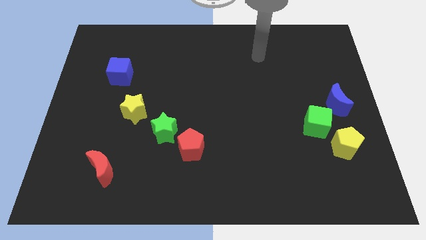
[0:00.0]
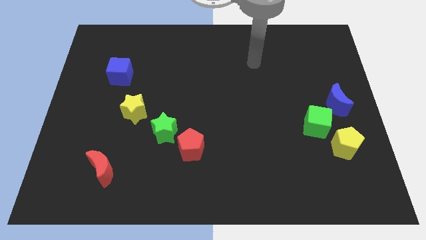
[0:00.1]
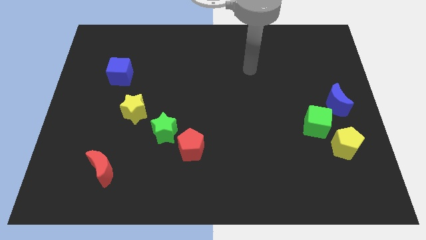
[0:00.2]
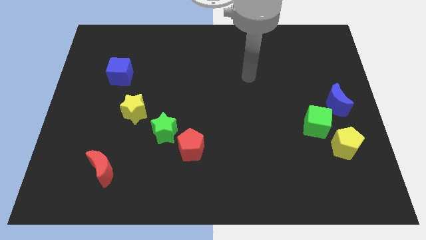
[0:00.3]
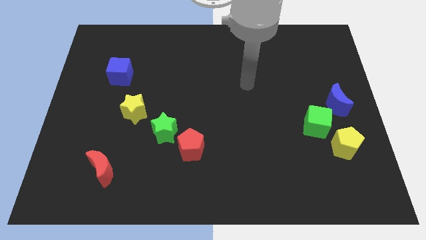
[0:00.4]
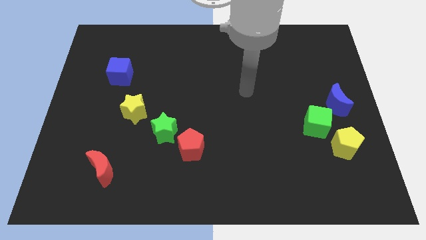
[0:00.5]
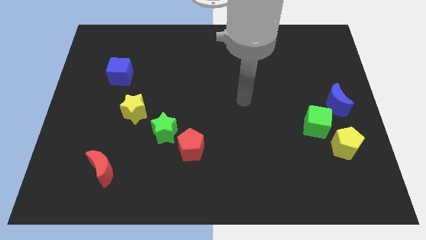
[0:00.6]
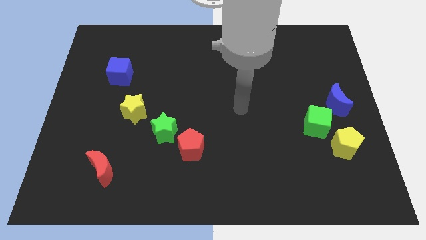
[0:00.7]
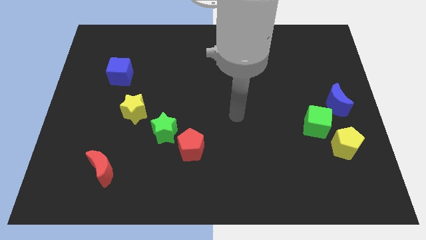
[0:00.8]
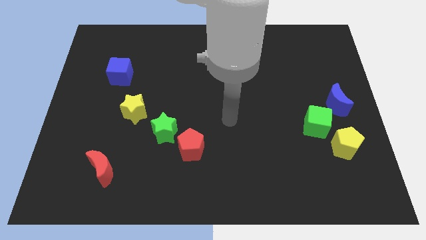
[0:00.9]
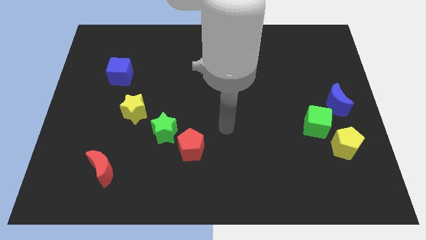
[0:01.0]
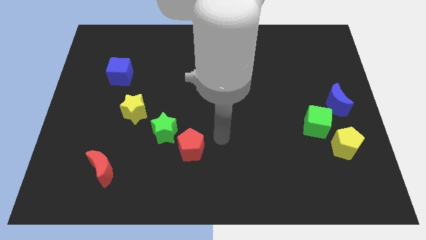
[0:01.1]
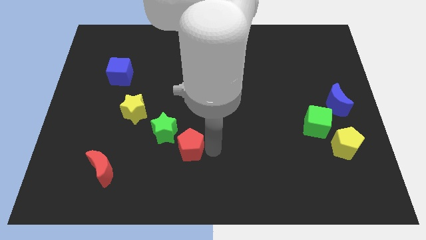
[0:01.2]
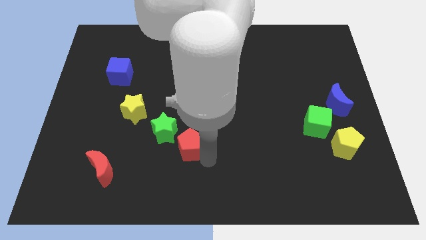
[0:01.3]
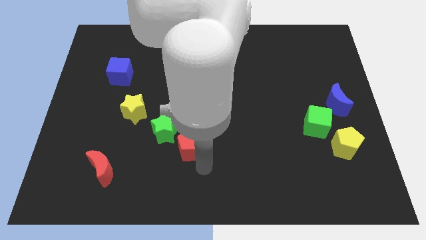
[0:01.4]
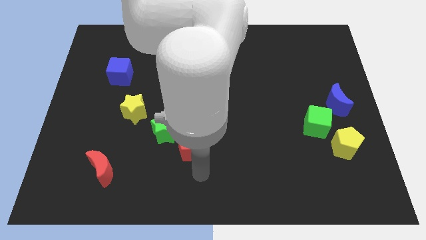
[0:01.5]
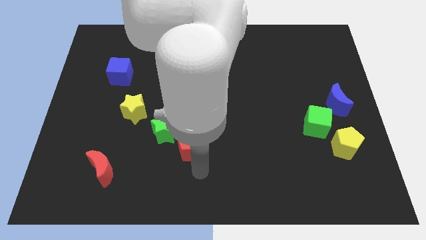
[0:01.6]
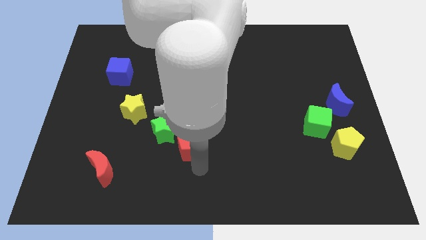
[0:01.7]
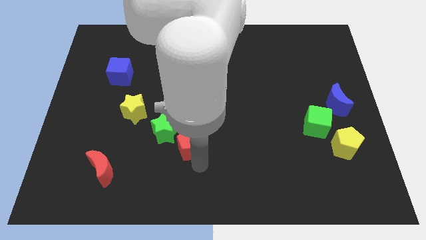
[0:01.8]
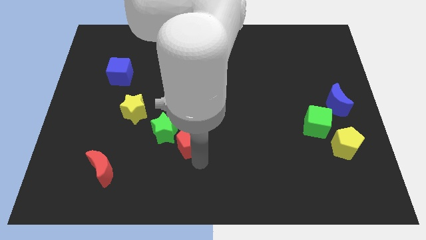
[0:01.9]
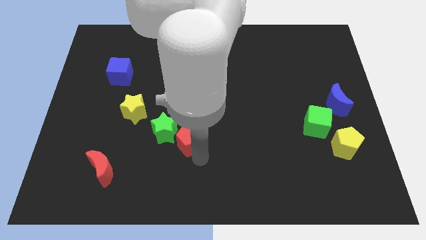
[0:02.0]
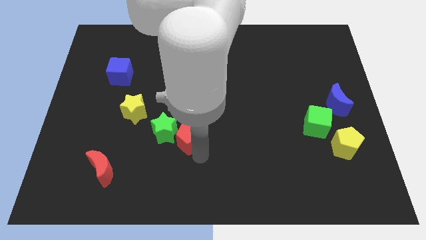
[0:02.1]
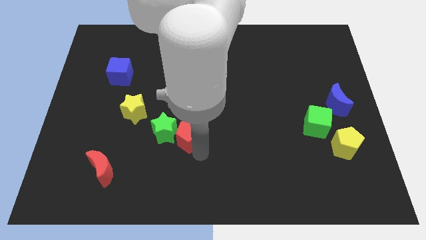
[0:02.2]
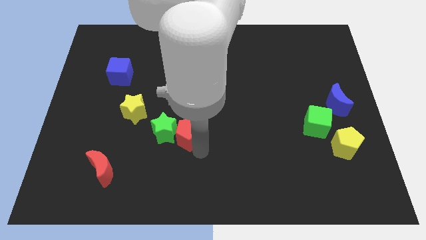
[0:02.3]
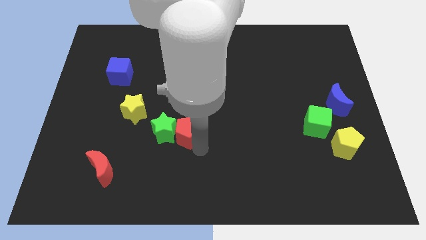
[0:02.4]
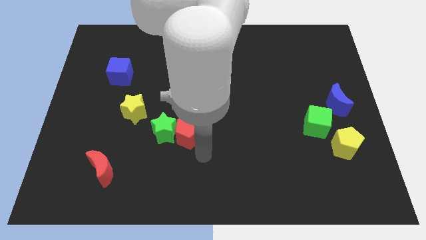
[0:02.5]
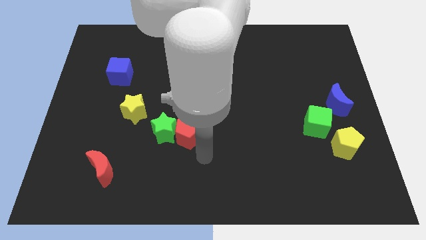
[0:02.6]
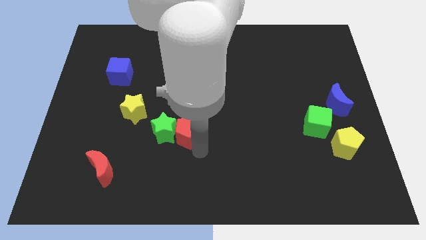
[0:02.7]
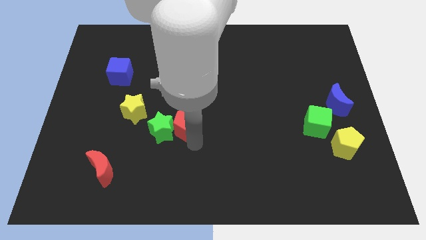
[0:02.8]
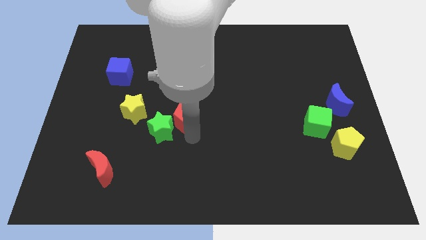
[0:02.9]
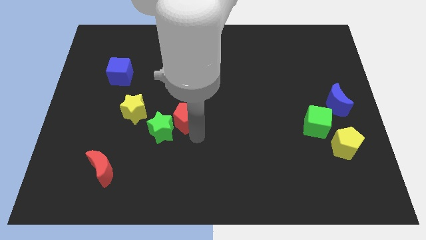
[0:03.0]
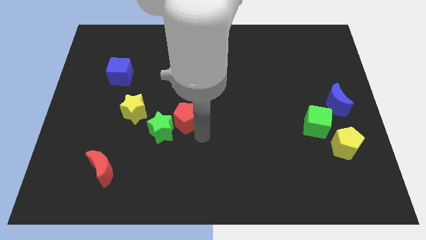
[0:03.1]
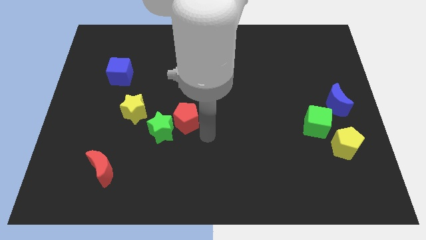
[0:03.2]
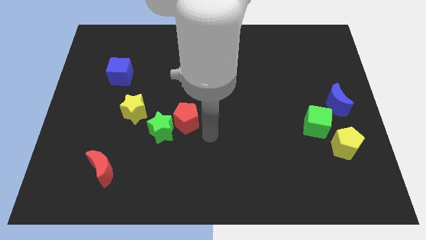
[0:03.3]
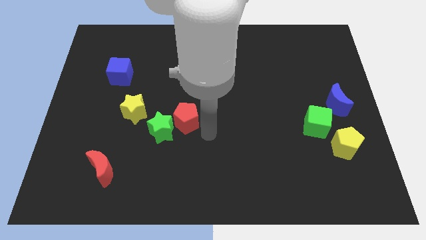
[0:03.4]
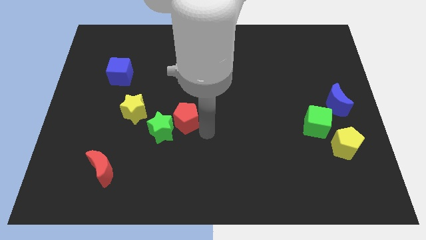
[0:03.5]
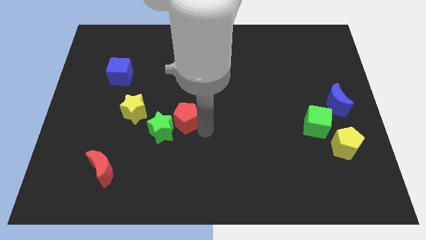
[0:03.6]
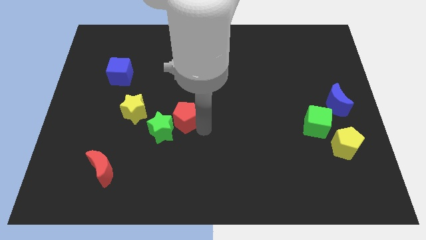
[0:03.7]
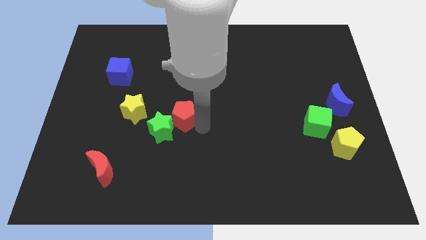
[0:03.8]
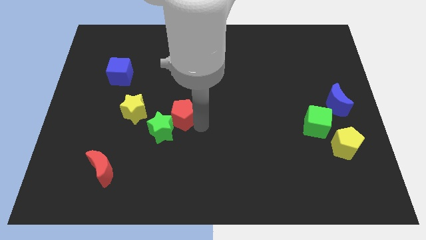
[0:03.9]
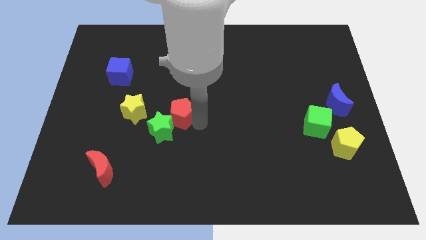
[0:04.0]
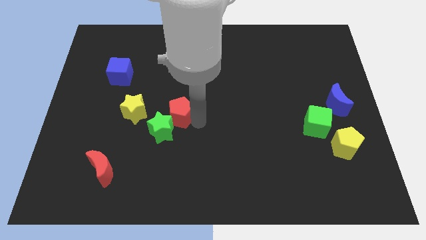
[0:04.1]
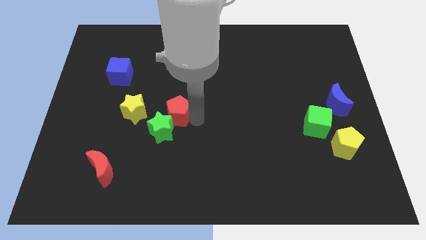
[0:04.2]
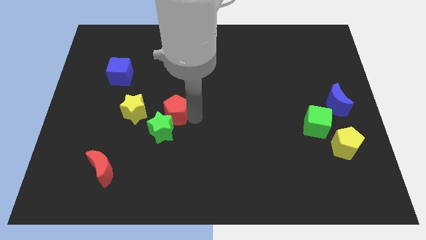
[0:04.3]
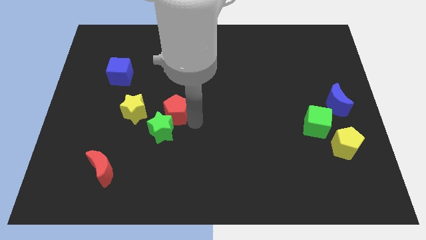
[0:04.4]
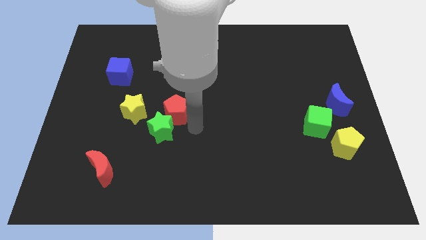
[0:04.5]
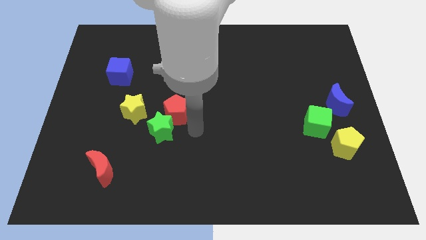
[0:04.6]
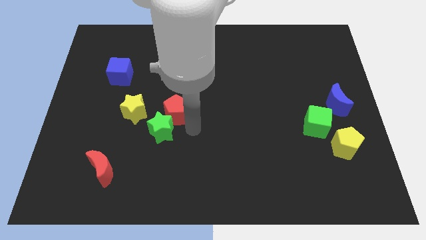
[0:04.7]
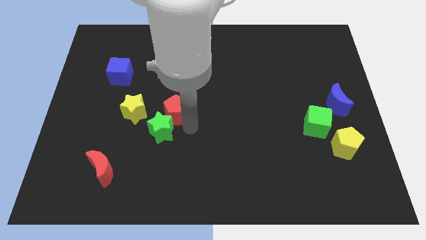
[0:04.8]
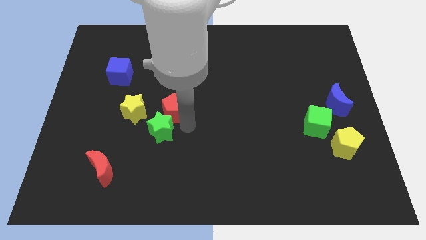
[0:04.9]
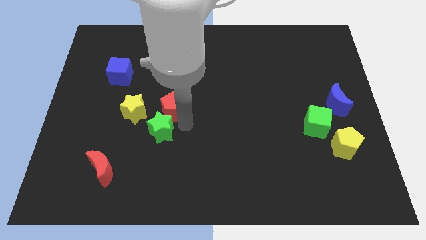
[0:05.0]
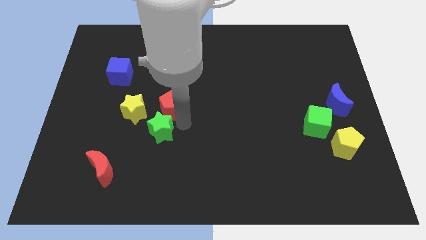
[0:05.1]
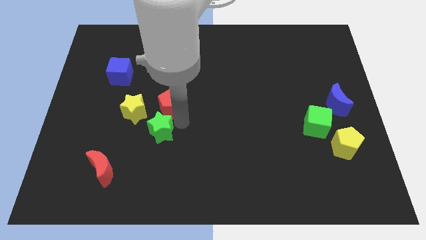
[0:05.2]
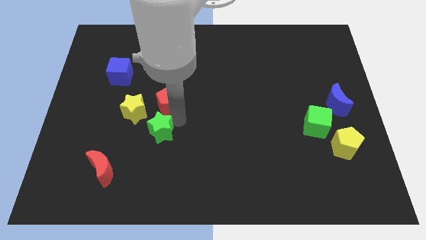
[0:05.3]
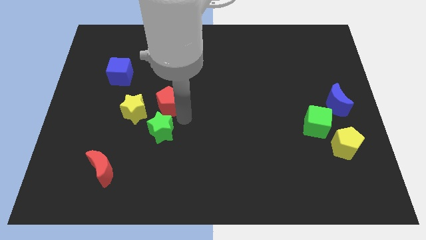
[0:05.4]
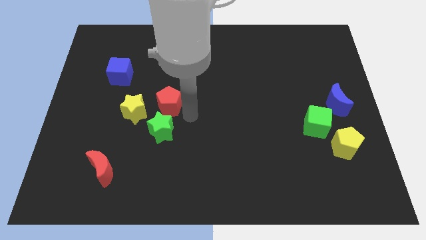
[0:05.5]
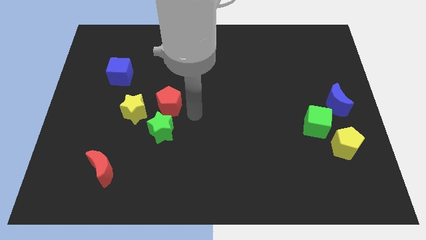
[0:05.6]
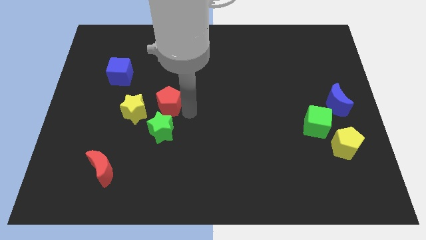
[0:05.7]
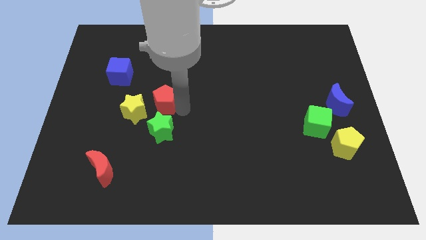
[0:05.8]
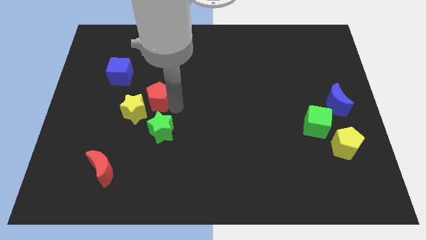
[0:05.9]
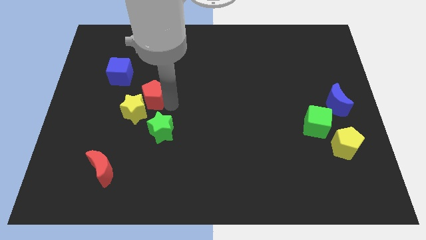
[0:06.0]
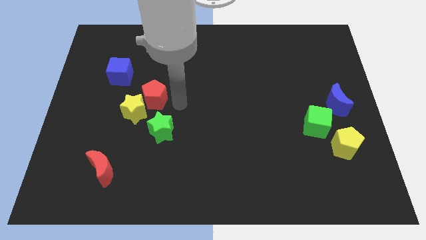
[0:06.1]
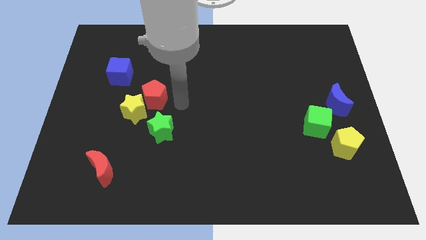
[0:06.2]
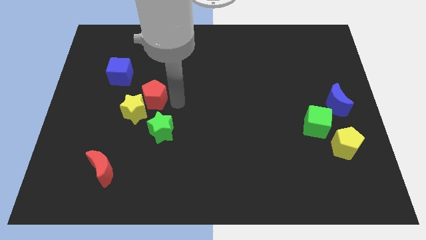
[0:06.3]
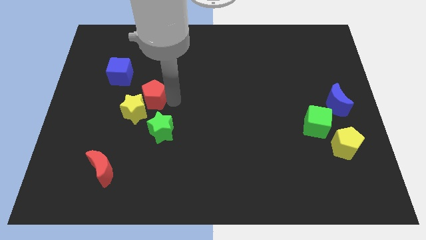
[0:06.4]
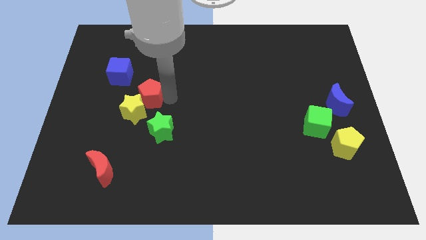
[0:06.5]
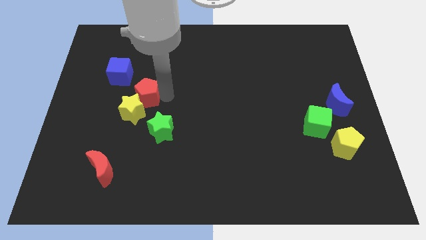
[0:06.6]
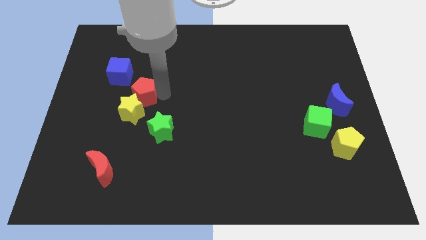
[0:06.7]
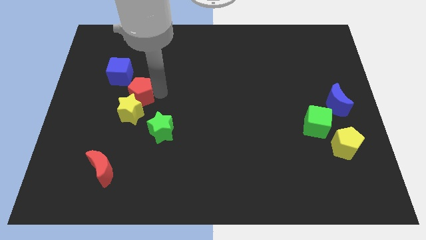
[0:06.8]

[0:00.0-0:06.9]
move the red pentagon up and then to the left

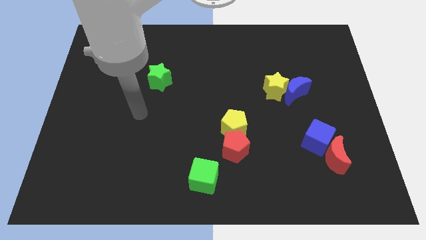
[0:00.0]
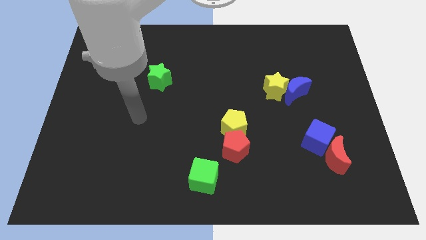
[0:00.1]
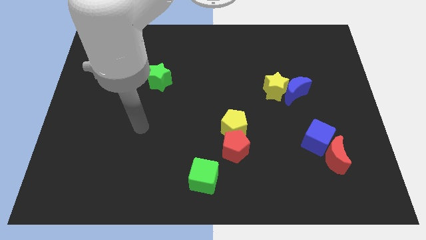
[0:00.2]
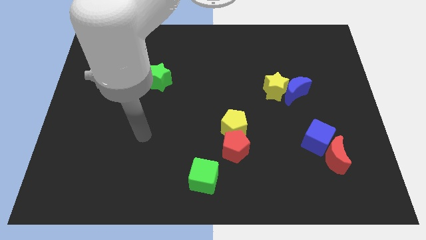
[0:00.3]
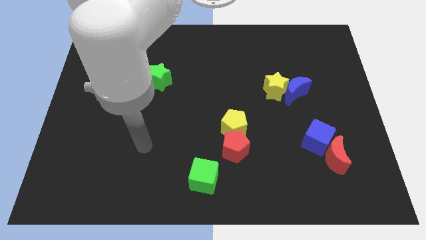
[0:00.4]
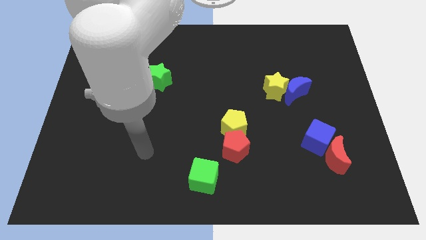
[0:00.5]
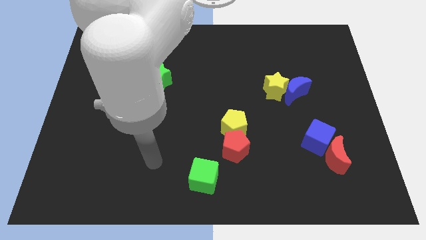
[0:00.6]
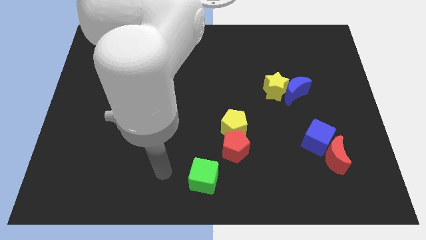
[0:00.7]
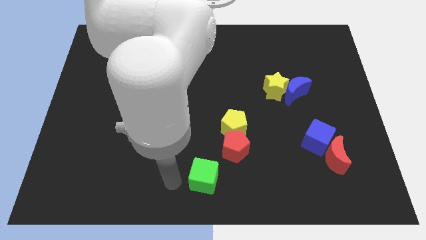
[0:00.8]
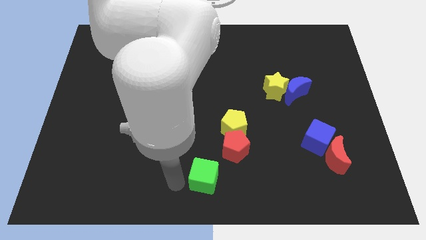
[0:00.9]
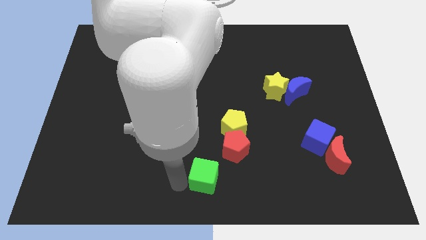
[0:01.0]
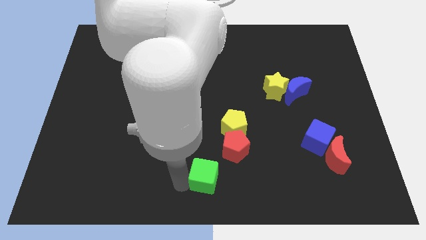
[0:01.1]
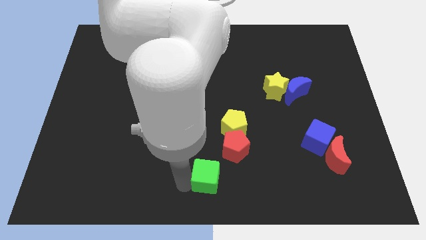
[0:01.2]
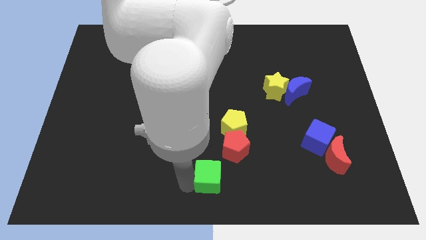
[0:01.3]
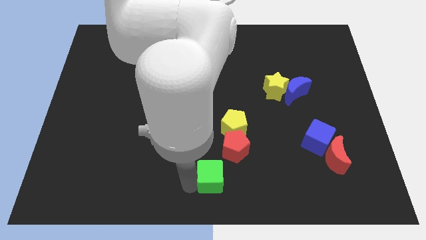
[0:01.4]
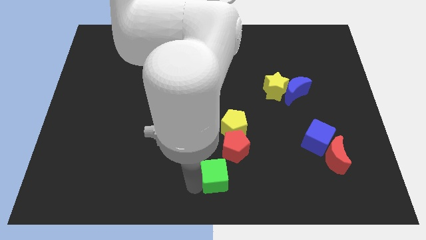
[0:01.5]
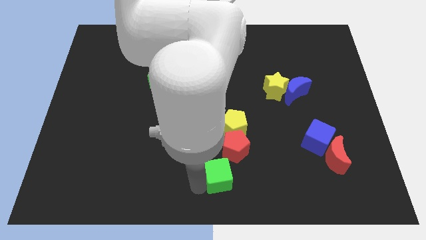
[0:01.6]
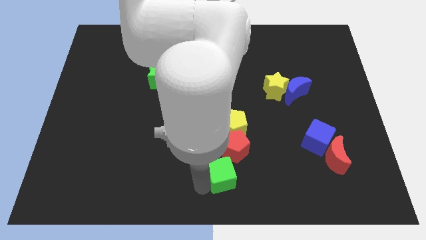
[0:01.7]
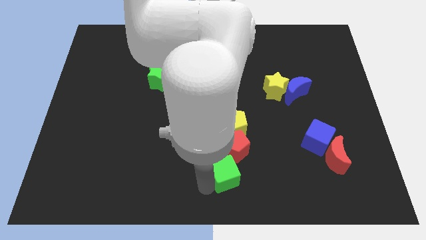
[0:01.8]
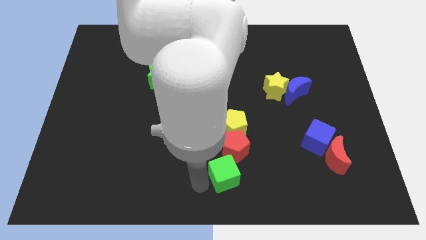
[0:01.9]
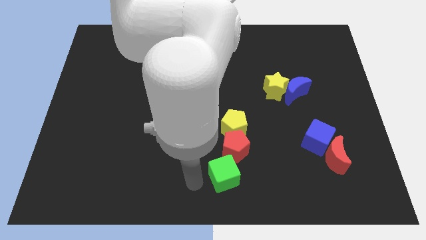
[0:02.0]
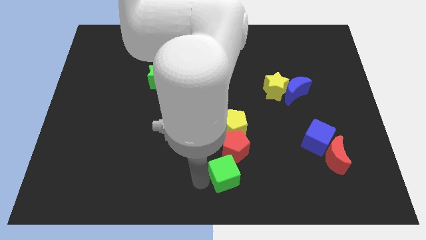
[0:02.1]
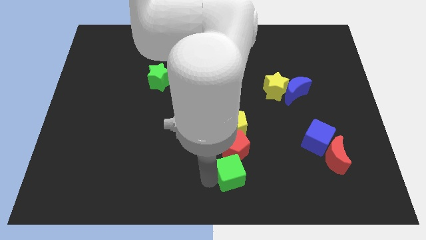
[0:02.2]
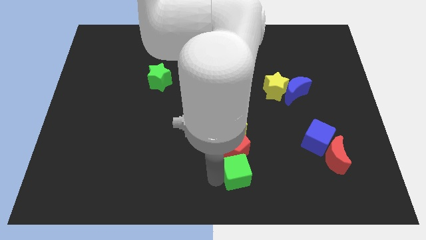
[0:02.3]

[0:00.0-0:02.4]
slightly move the green cube right
